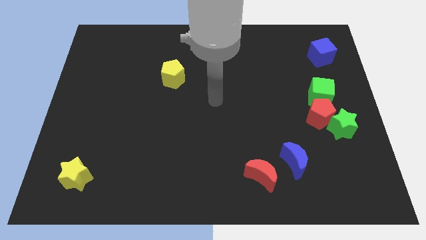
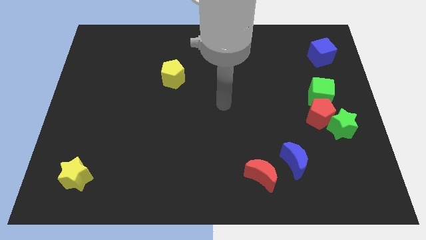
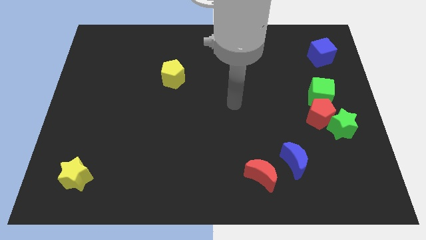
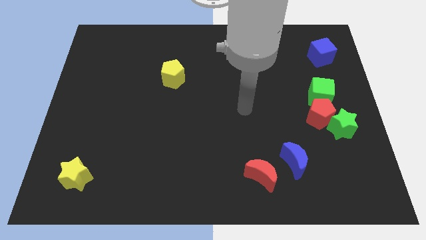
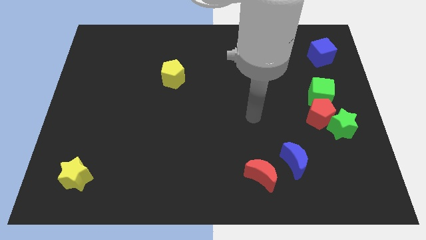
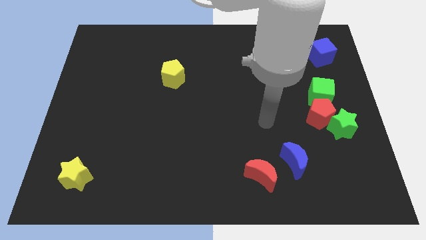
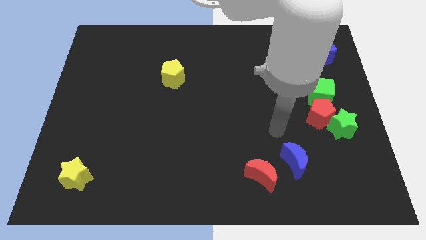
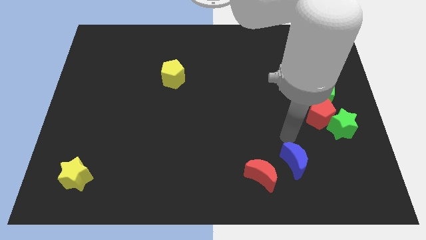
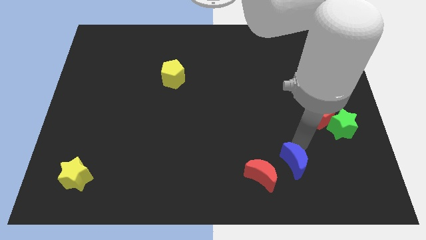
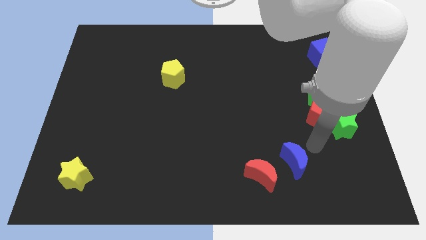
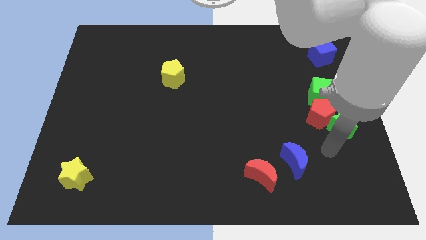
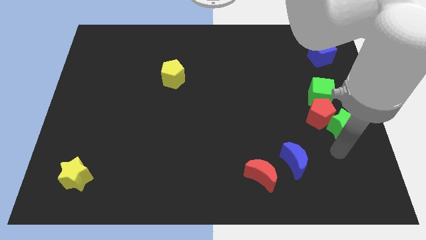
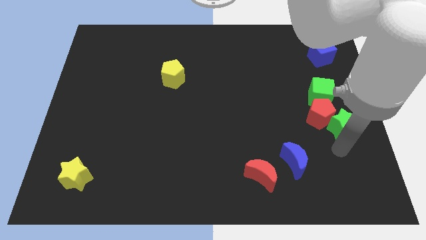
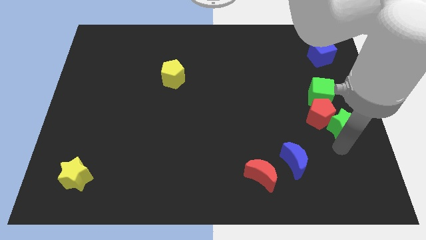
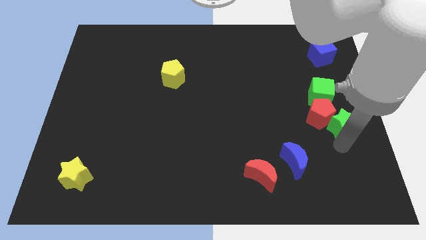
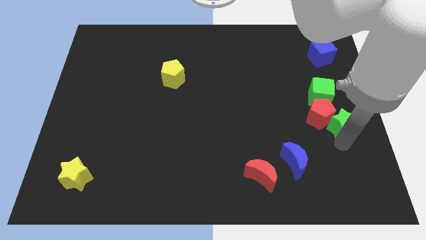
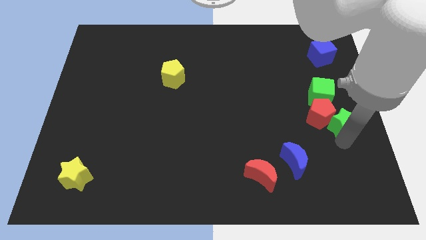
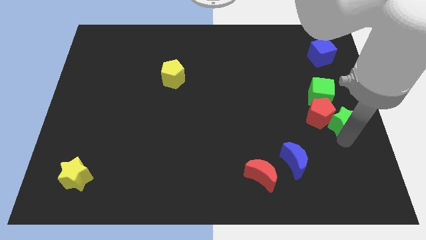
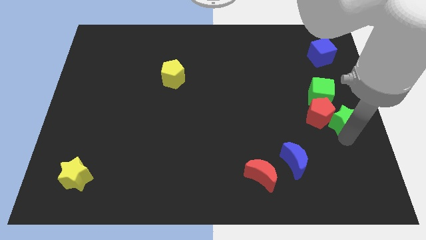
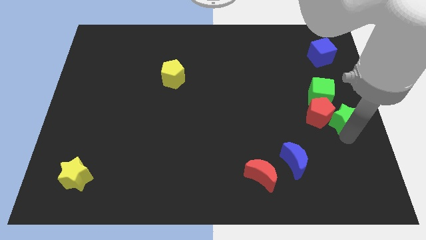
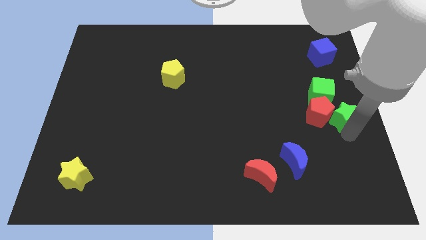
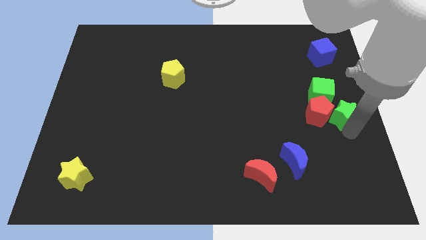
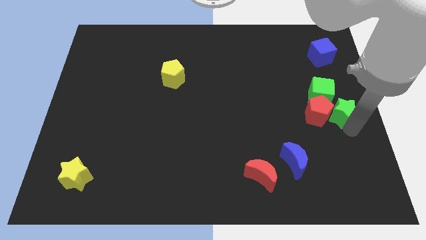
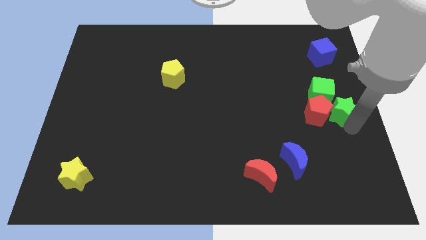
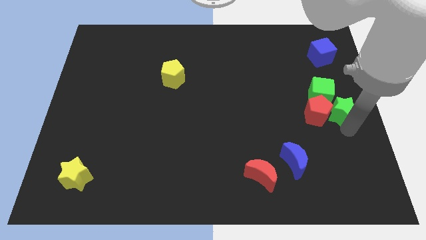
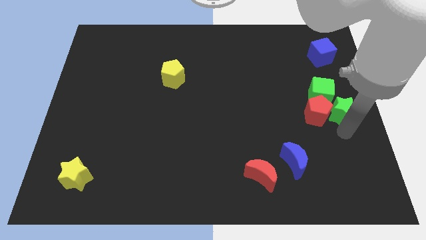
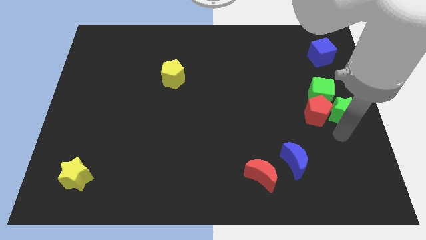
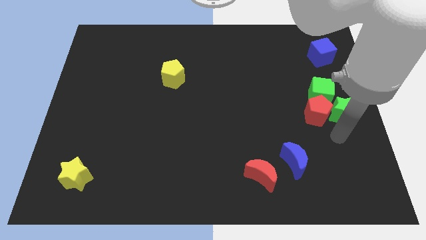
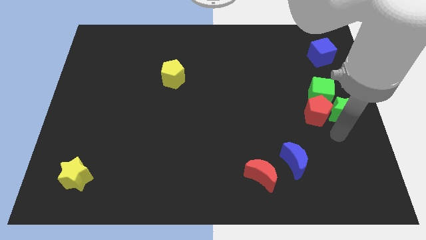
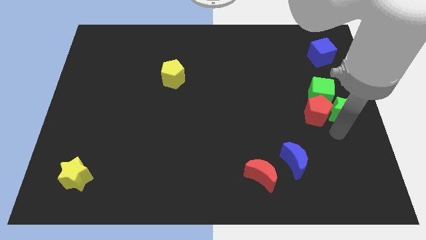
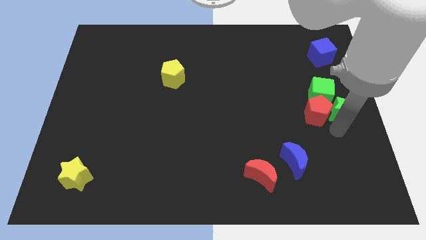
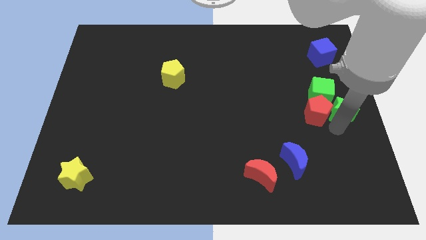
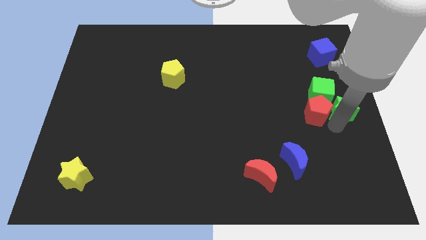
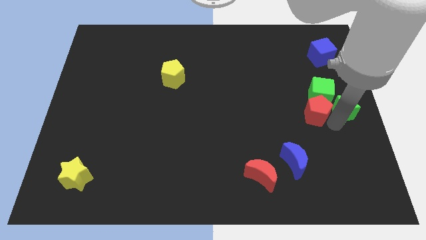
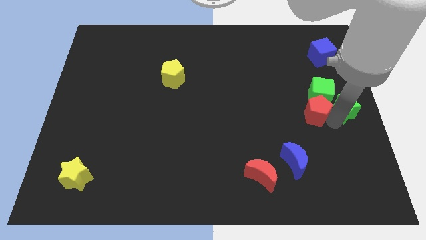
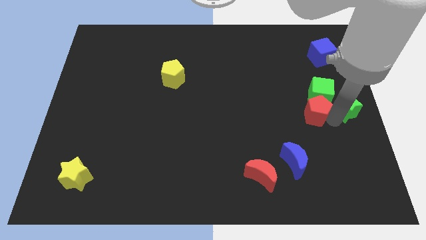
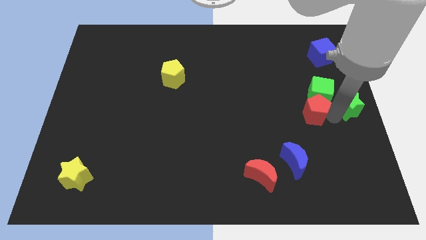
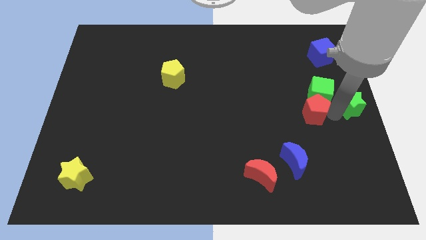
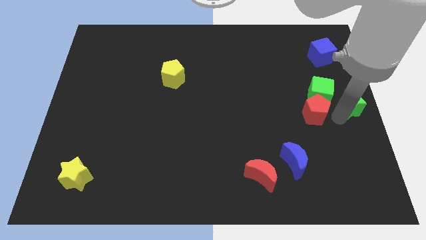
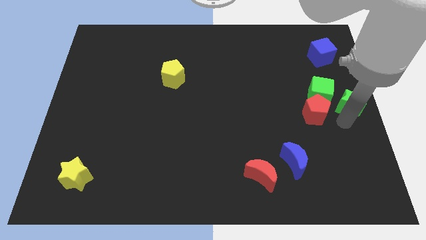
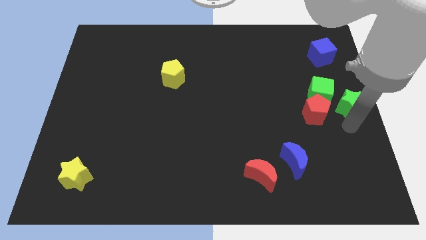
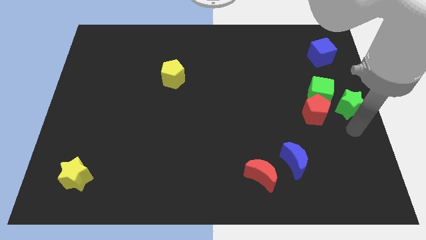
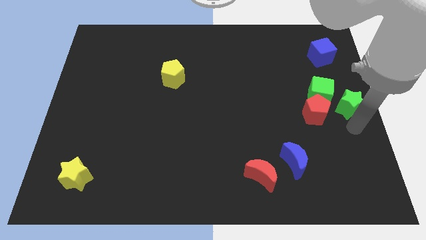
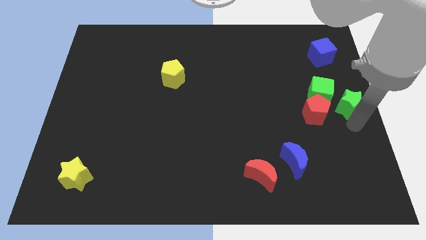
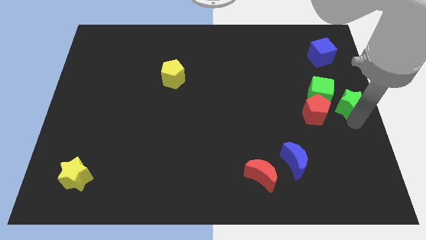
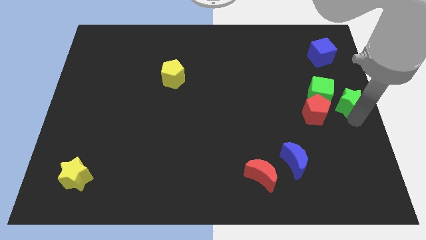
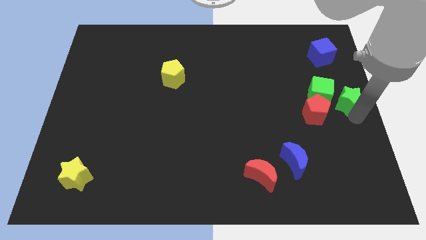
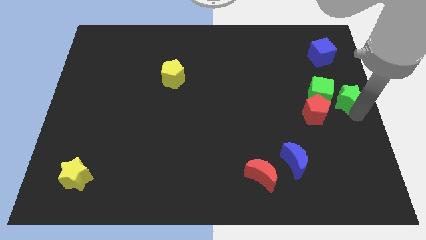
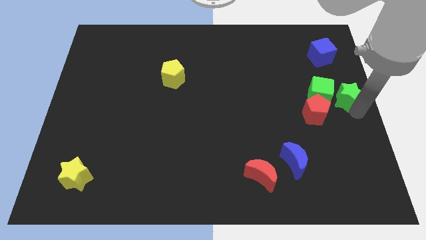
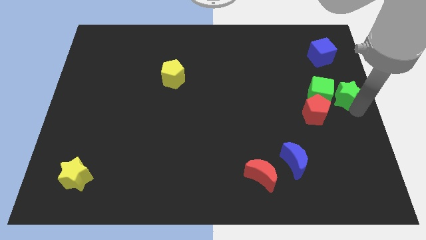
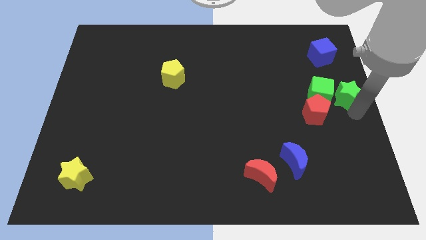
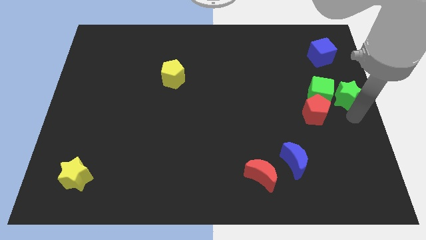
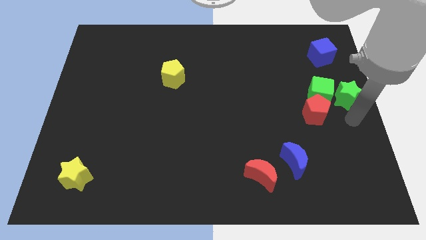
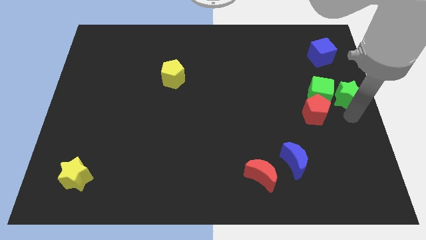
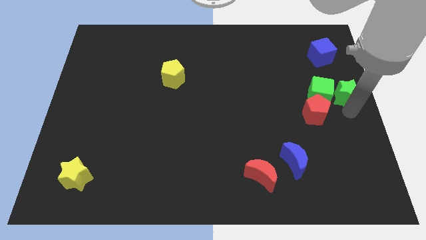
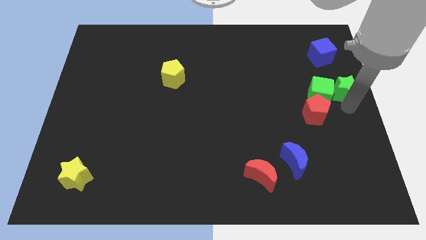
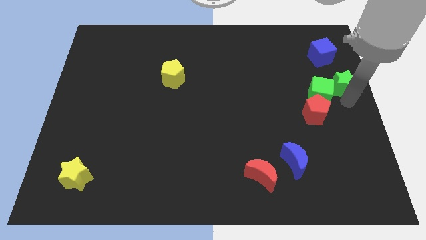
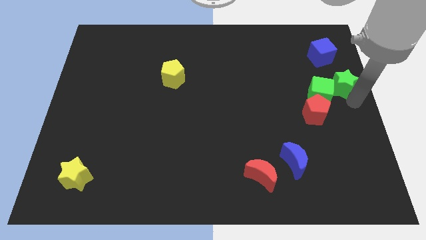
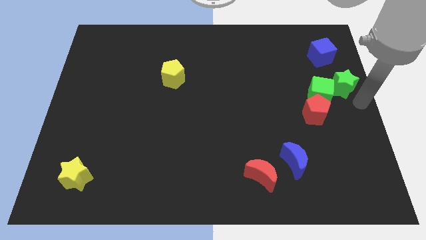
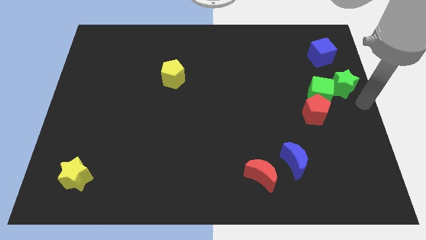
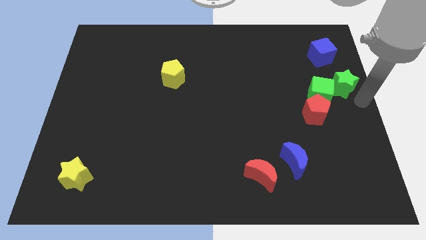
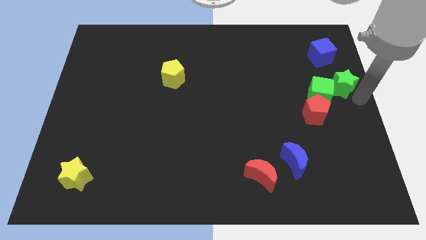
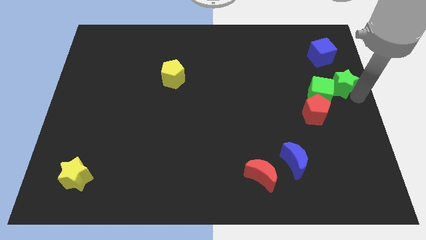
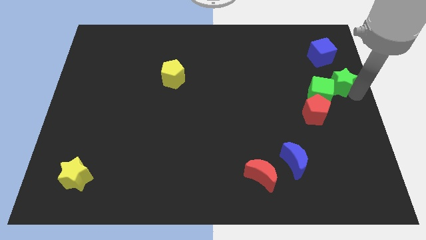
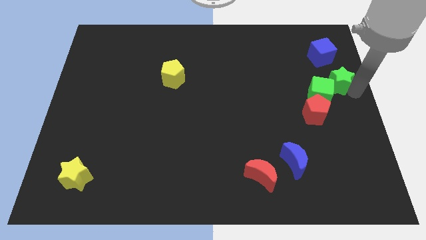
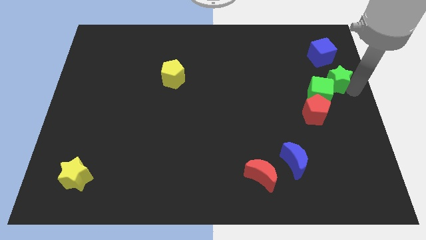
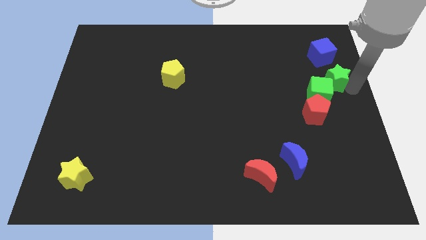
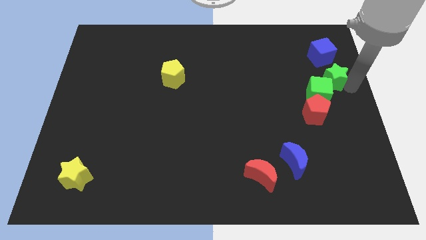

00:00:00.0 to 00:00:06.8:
push the green star to the top of the green cube

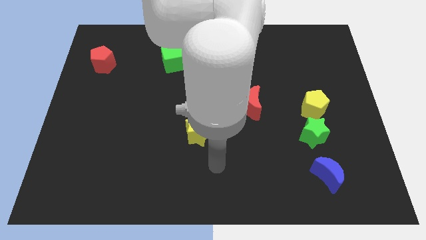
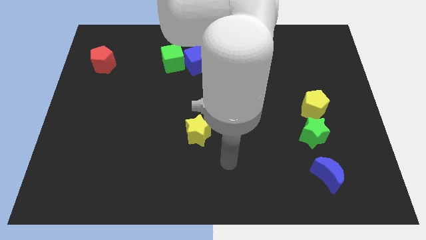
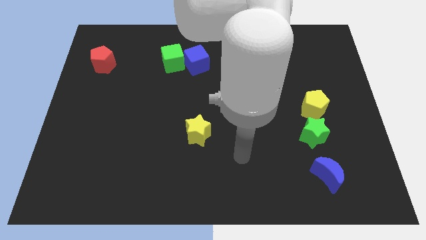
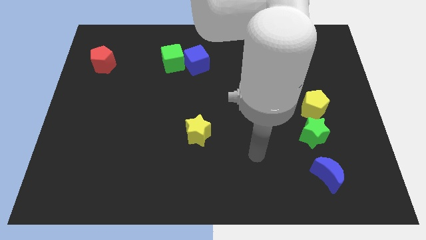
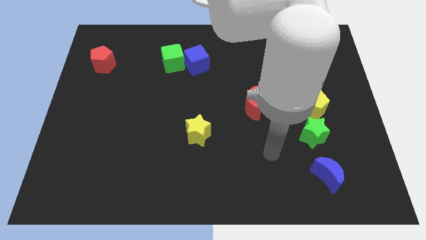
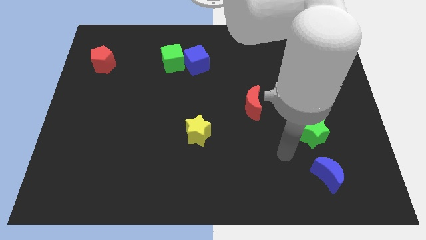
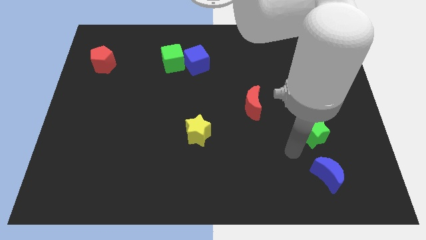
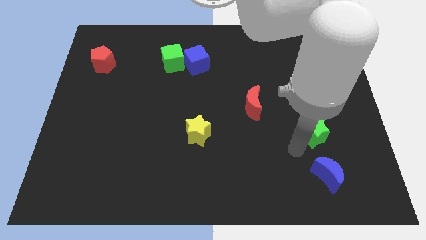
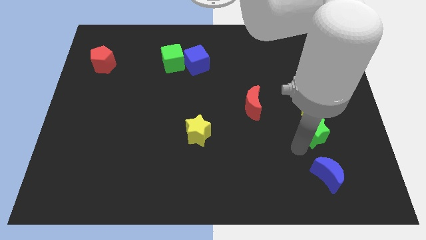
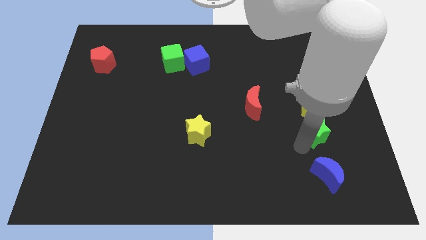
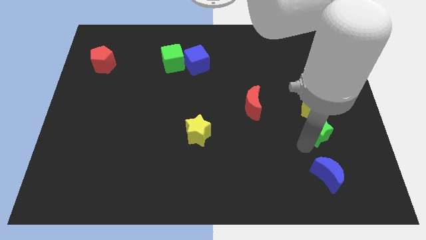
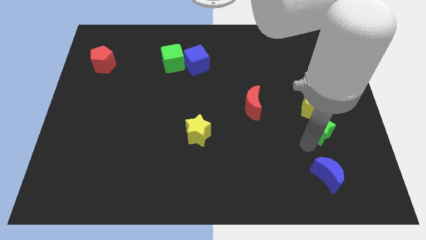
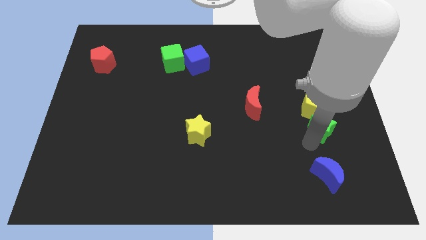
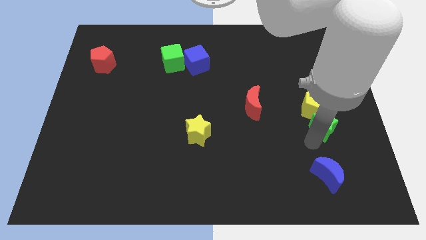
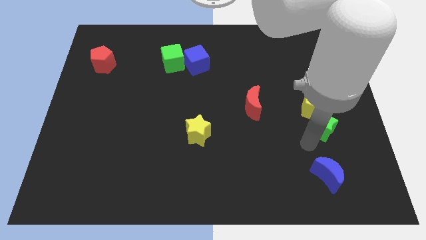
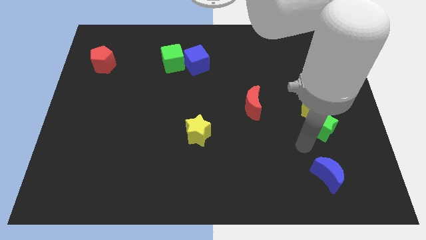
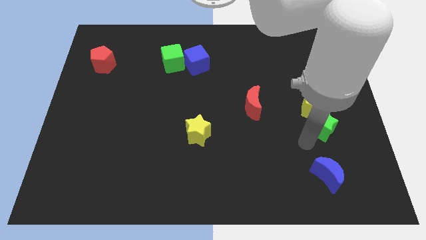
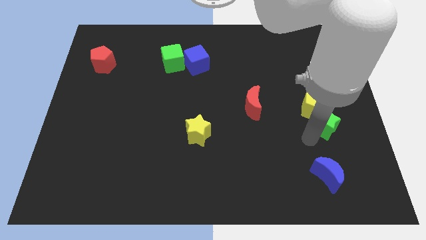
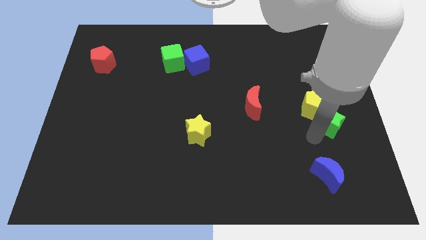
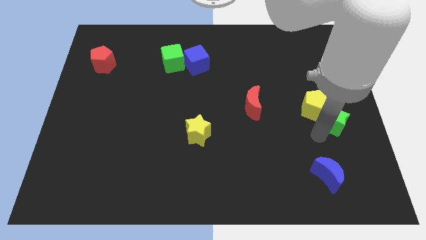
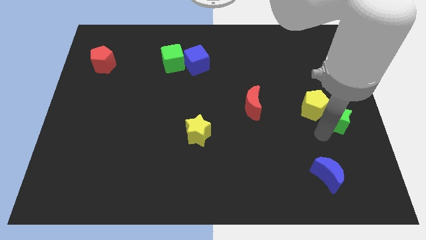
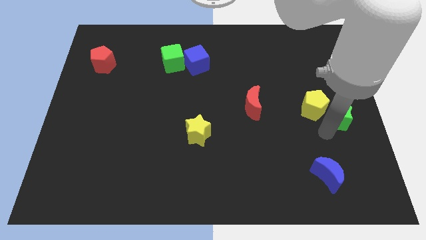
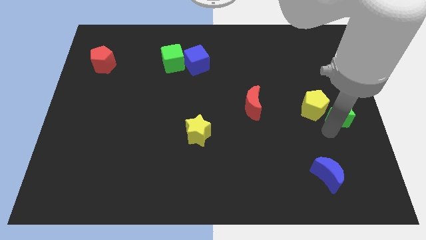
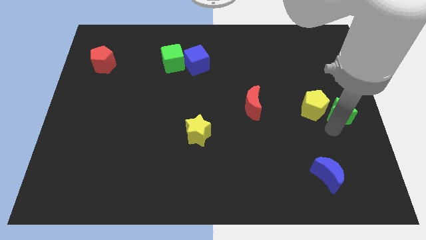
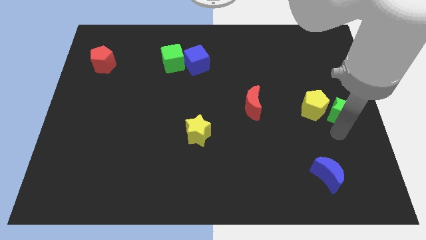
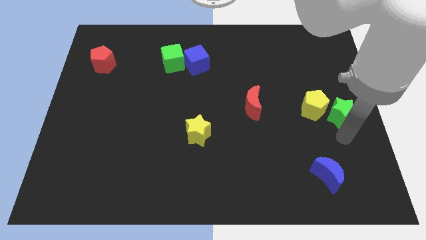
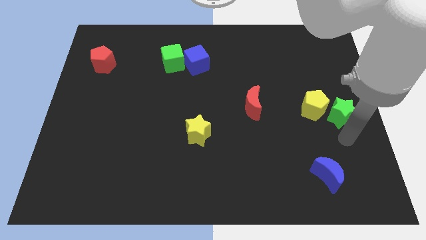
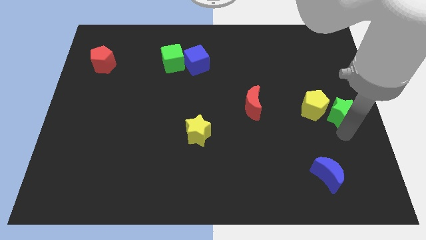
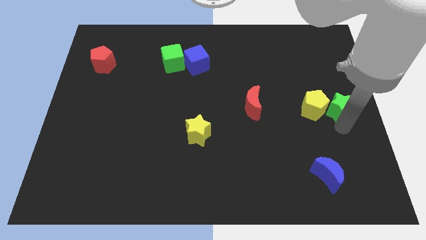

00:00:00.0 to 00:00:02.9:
put the green star to the top right side of the yellow pentagon
